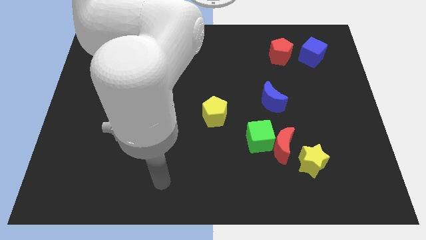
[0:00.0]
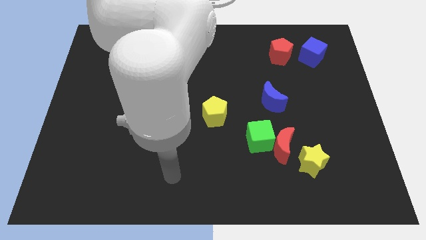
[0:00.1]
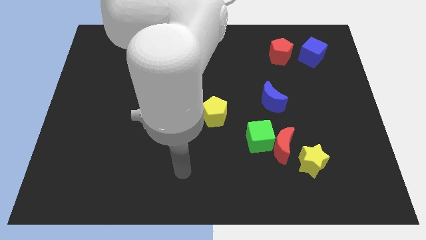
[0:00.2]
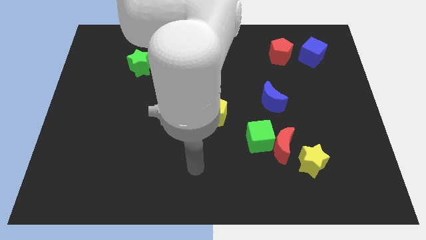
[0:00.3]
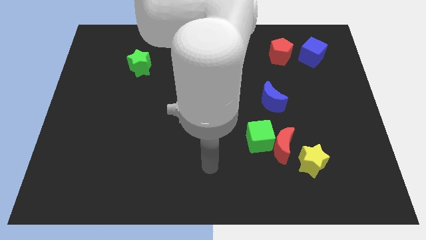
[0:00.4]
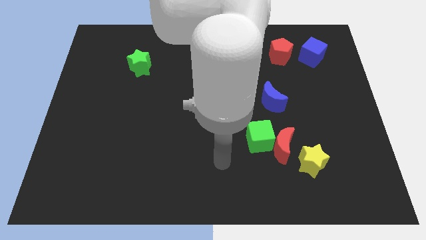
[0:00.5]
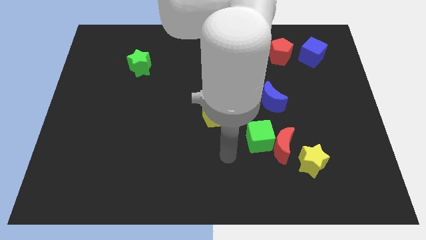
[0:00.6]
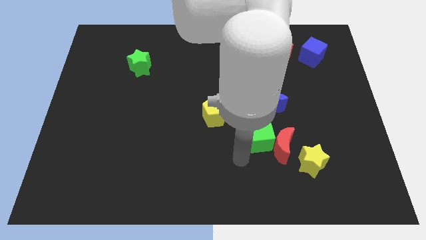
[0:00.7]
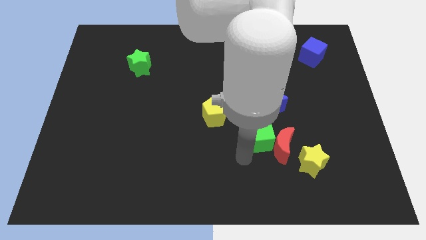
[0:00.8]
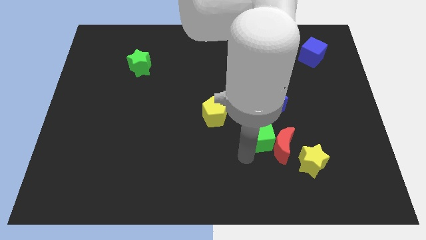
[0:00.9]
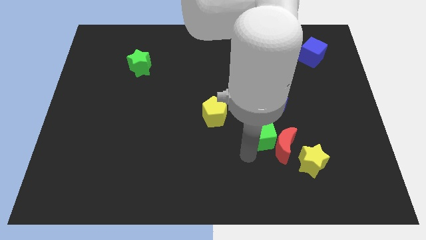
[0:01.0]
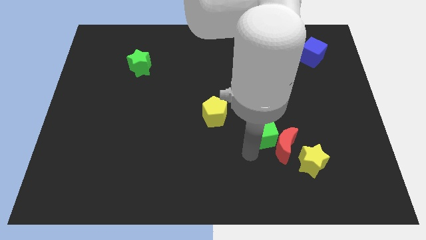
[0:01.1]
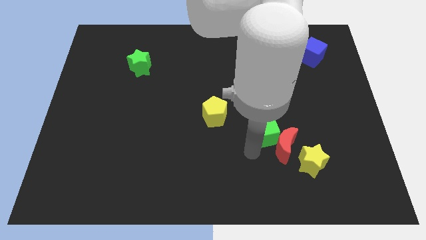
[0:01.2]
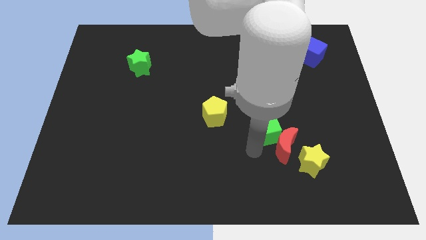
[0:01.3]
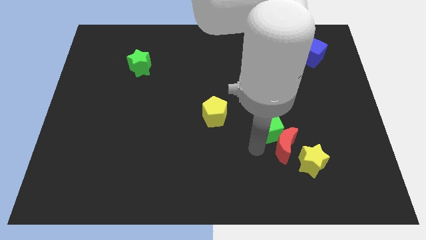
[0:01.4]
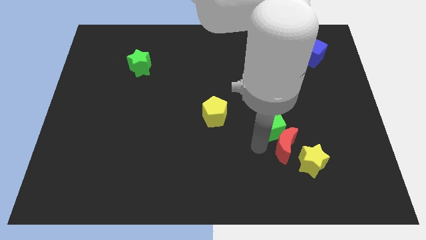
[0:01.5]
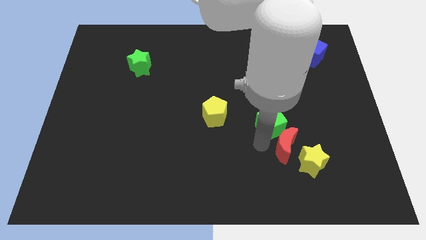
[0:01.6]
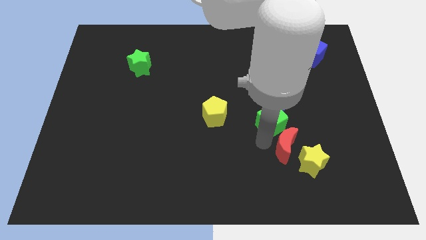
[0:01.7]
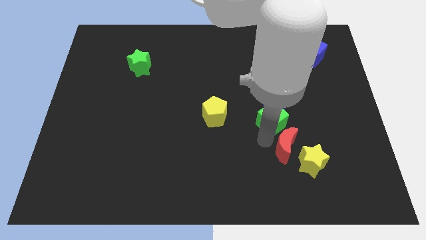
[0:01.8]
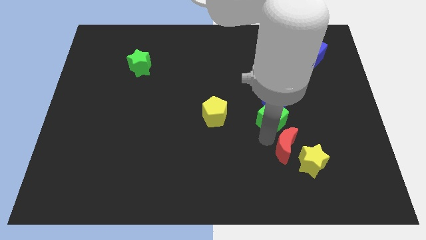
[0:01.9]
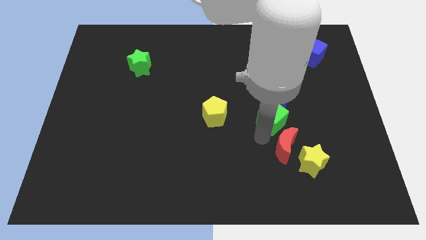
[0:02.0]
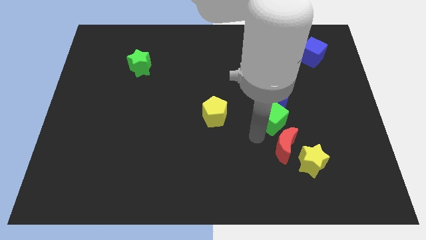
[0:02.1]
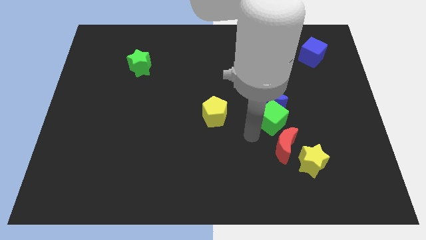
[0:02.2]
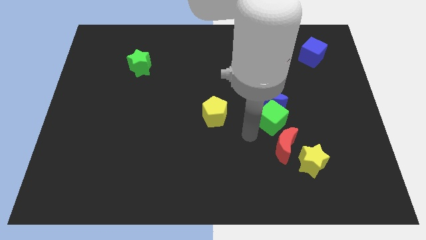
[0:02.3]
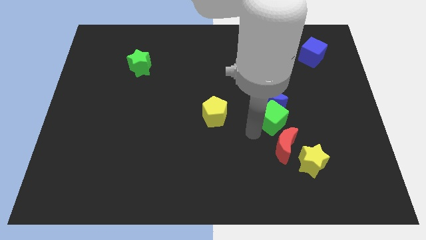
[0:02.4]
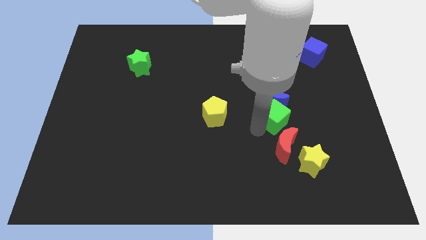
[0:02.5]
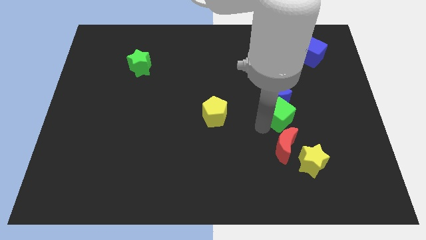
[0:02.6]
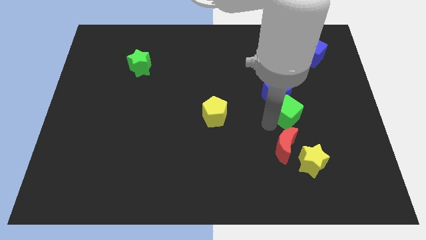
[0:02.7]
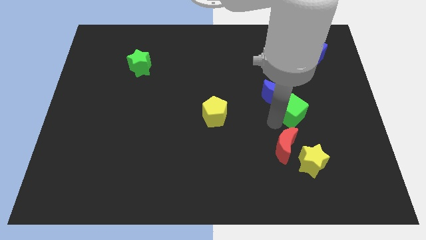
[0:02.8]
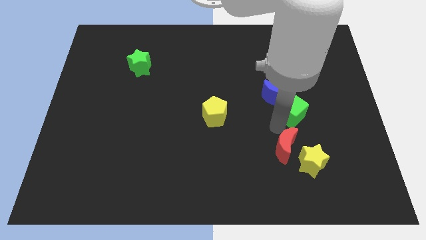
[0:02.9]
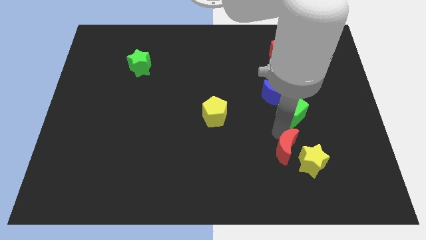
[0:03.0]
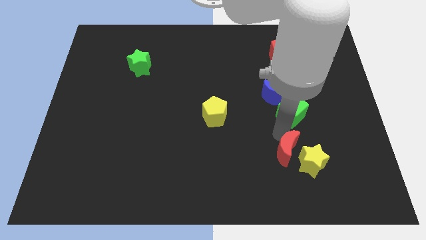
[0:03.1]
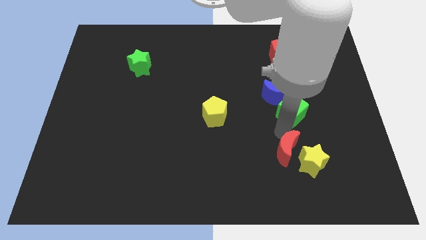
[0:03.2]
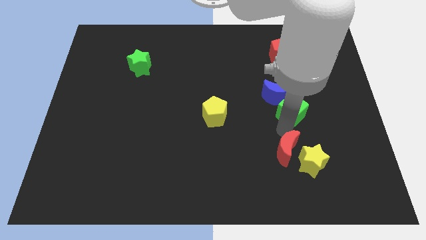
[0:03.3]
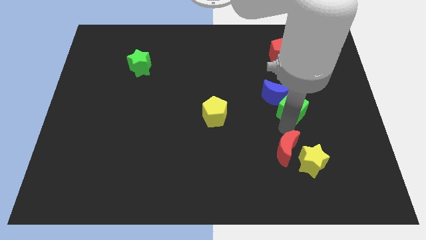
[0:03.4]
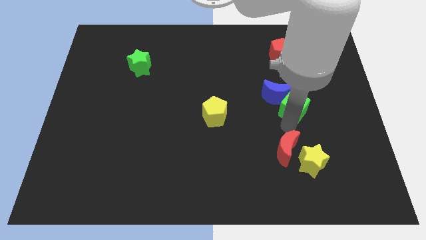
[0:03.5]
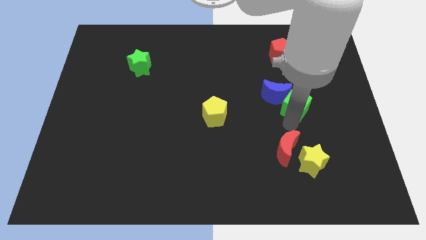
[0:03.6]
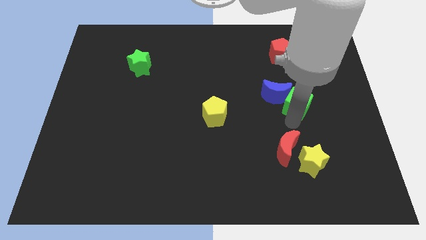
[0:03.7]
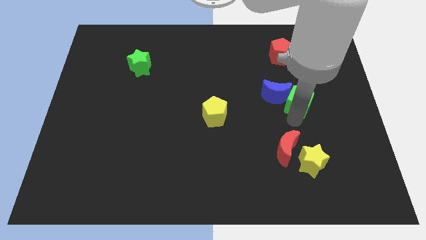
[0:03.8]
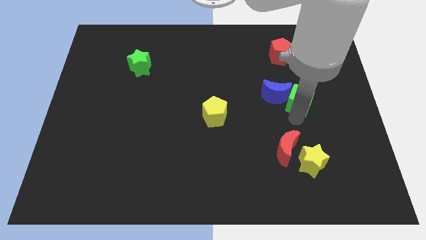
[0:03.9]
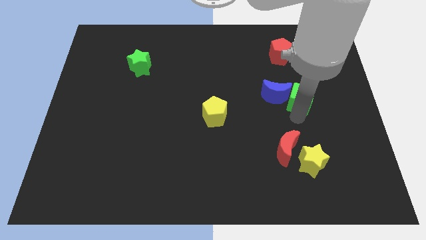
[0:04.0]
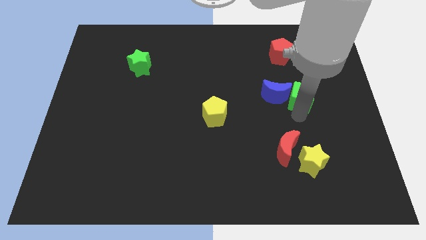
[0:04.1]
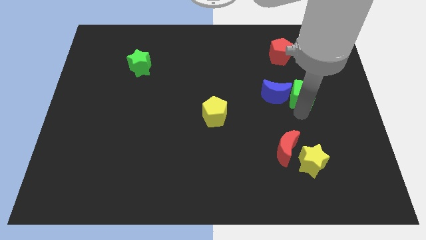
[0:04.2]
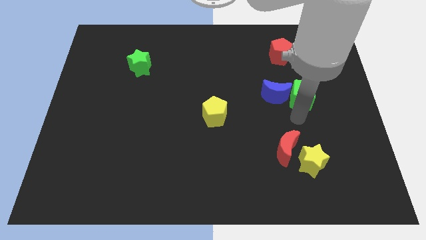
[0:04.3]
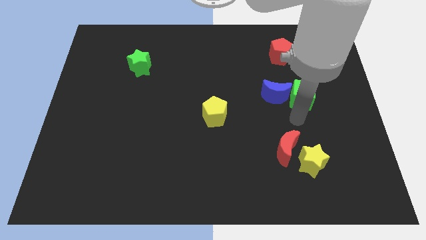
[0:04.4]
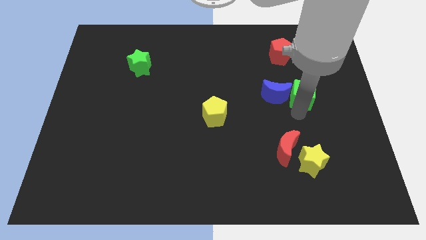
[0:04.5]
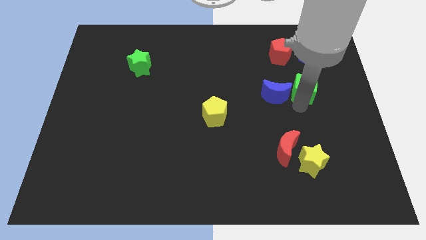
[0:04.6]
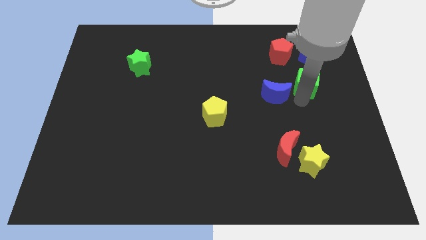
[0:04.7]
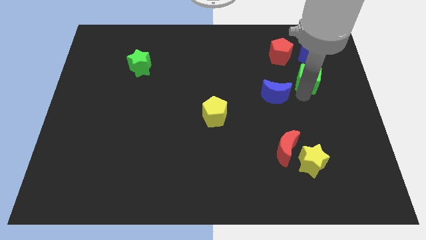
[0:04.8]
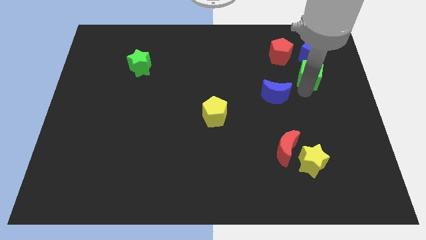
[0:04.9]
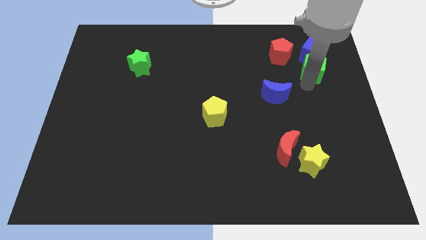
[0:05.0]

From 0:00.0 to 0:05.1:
slide the green cube to the blue cube

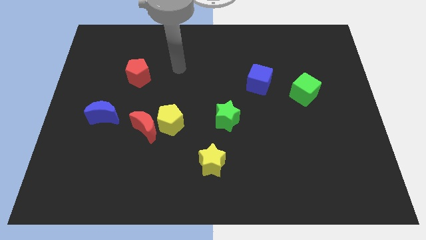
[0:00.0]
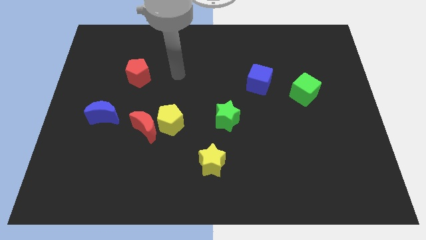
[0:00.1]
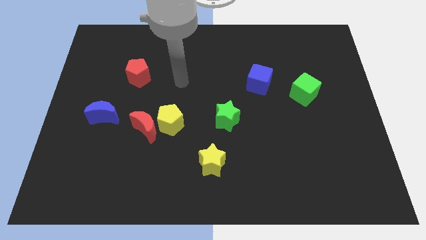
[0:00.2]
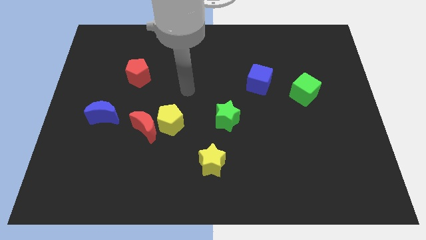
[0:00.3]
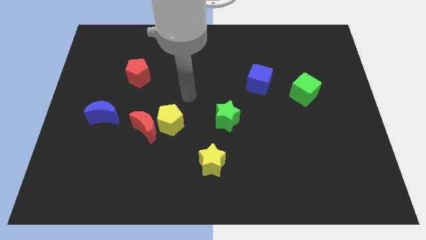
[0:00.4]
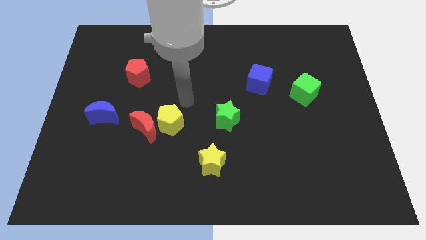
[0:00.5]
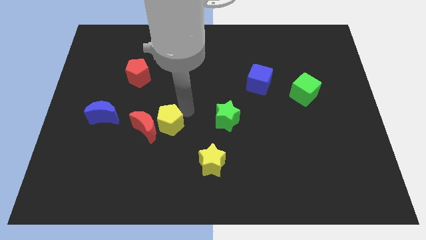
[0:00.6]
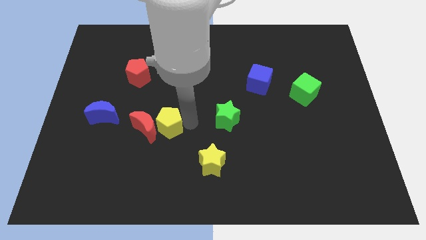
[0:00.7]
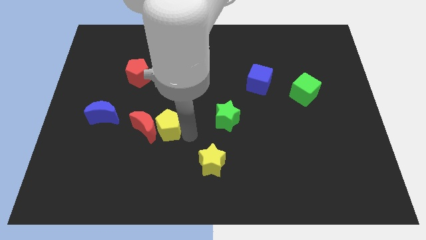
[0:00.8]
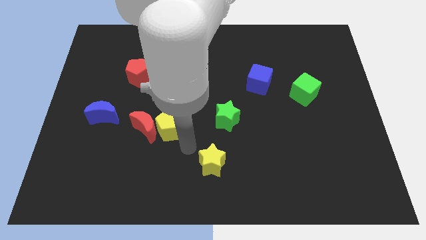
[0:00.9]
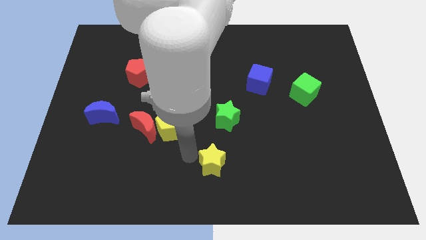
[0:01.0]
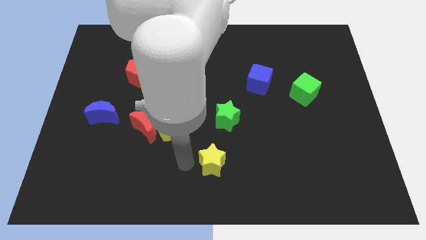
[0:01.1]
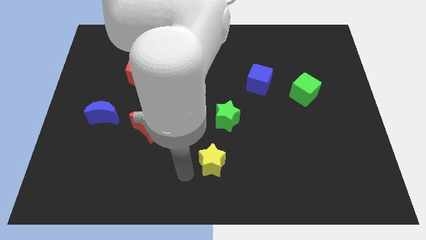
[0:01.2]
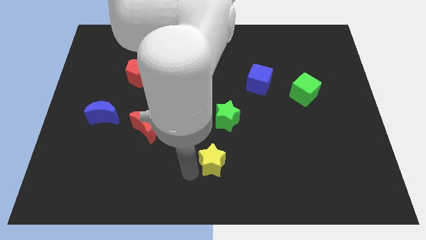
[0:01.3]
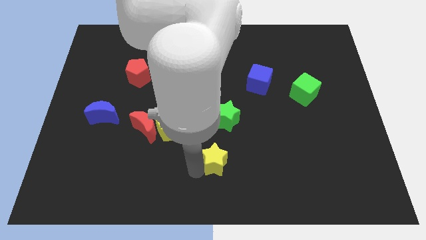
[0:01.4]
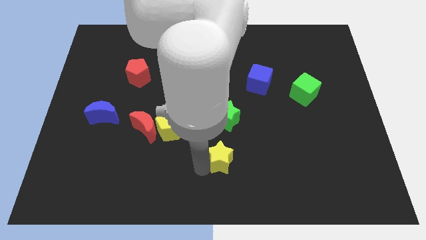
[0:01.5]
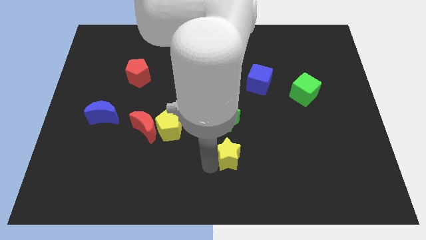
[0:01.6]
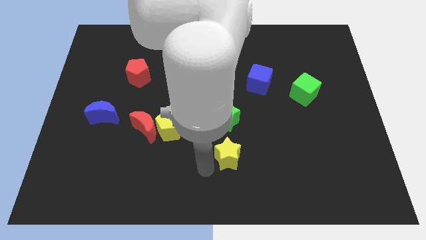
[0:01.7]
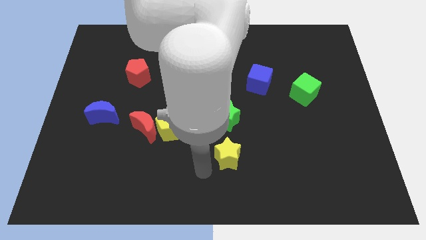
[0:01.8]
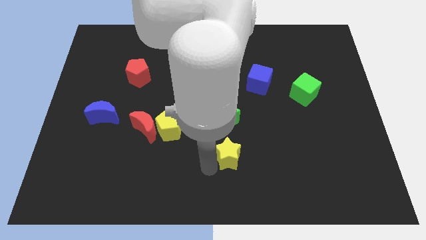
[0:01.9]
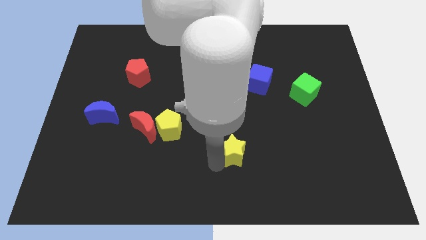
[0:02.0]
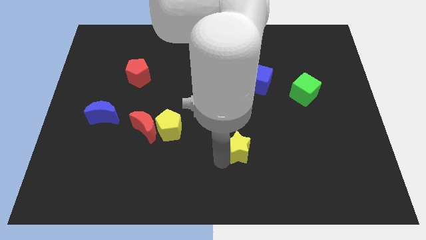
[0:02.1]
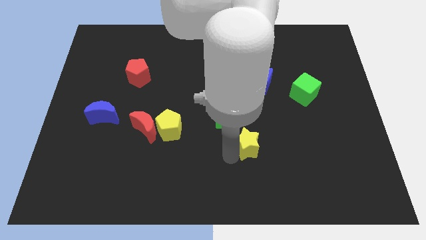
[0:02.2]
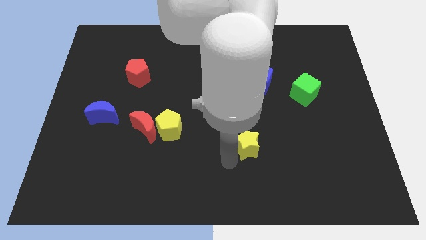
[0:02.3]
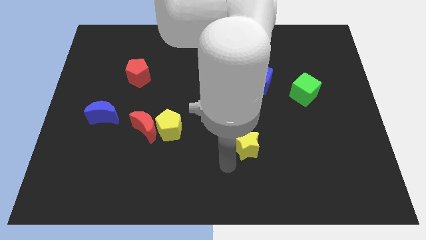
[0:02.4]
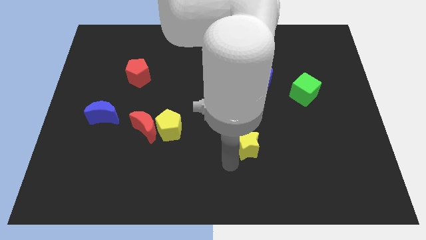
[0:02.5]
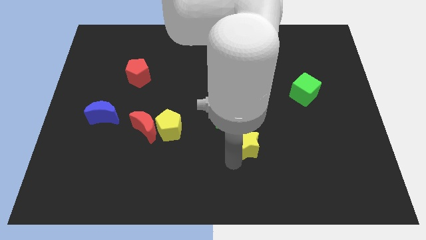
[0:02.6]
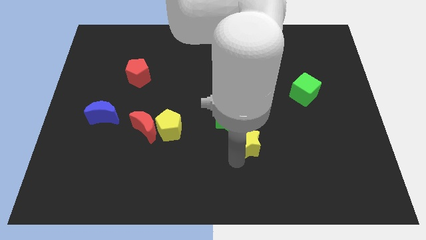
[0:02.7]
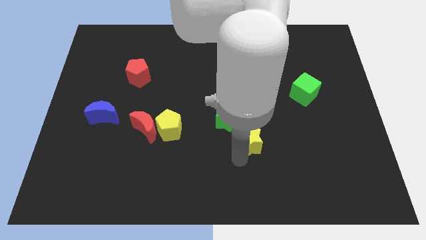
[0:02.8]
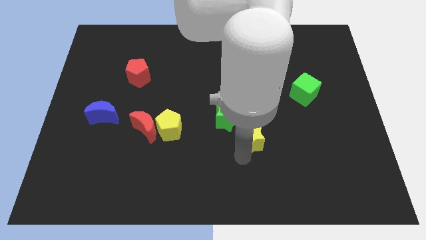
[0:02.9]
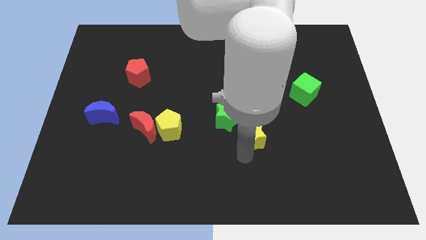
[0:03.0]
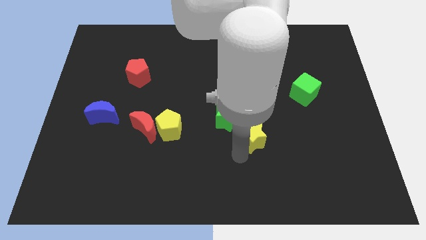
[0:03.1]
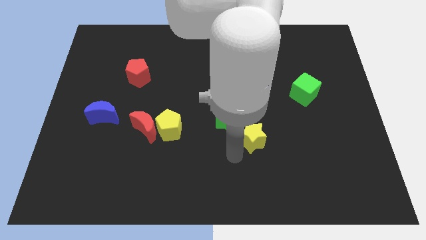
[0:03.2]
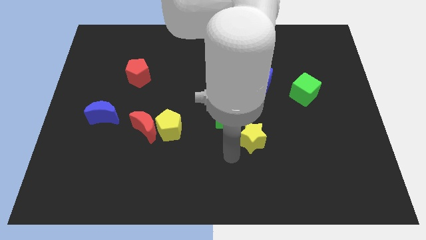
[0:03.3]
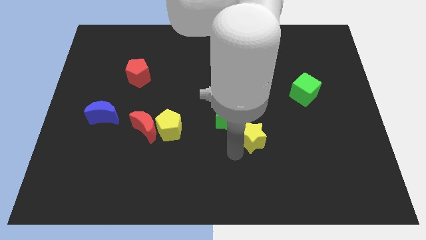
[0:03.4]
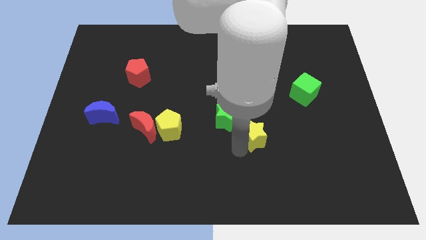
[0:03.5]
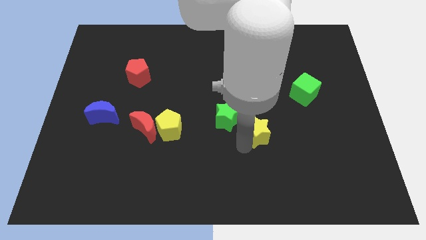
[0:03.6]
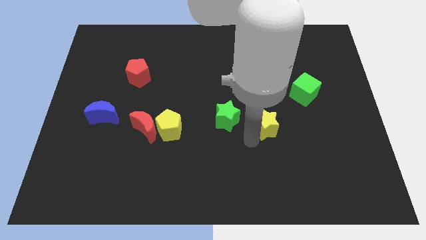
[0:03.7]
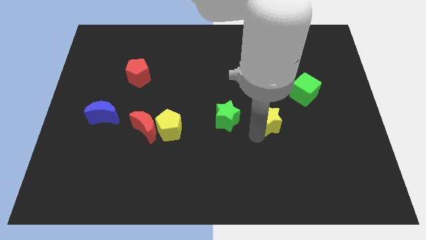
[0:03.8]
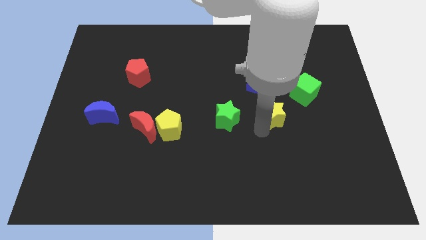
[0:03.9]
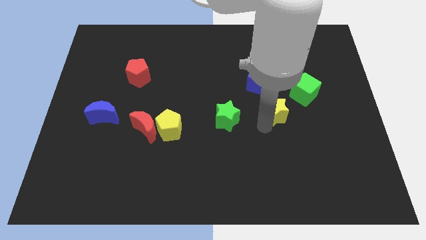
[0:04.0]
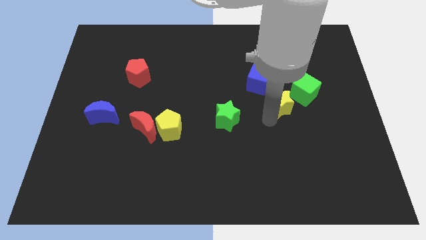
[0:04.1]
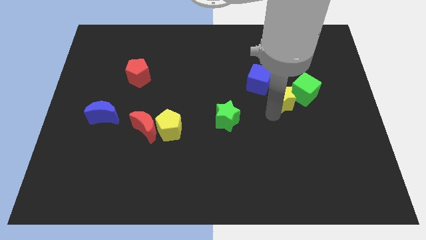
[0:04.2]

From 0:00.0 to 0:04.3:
slide the yellow star close to the green cube
